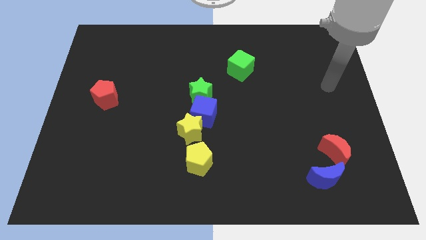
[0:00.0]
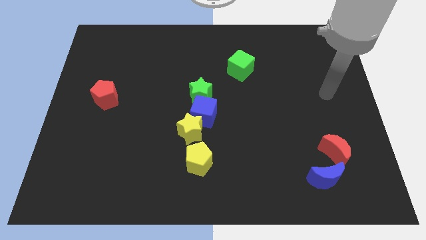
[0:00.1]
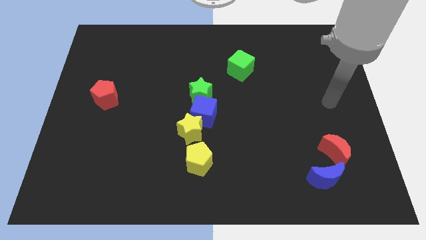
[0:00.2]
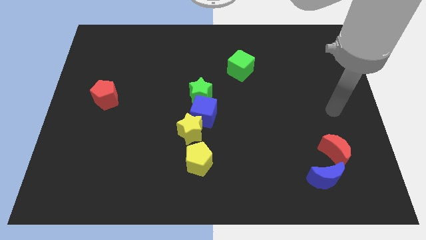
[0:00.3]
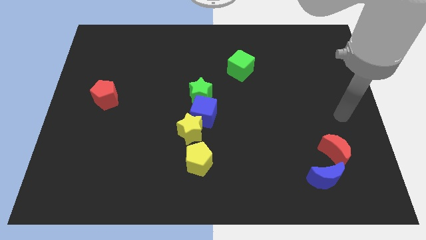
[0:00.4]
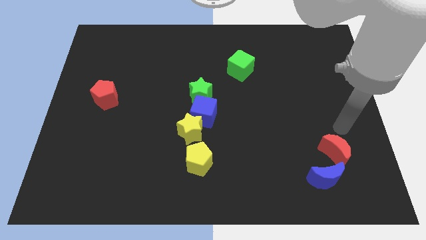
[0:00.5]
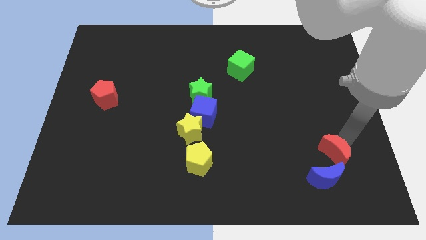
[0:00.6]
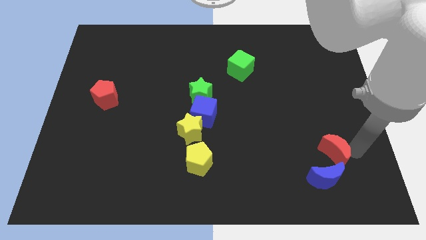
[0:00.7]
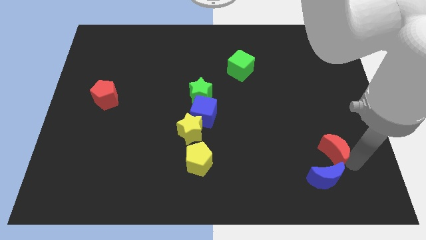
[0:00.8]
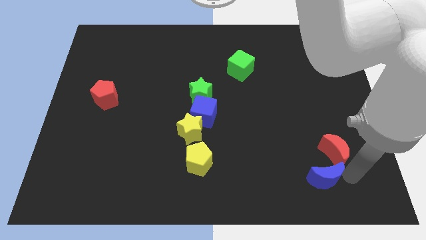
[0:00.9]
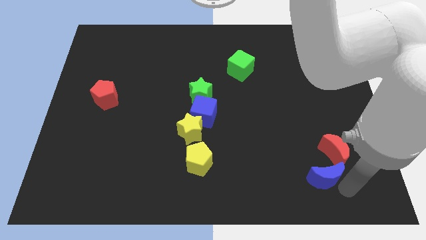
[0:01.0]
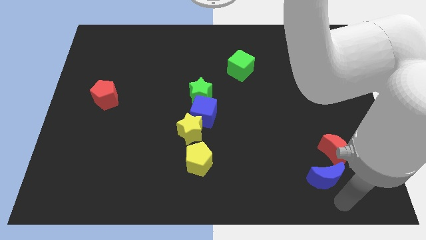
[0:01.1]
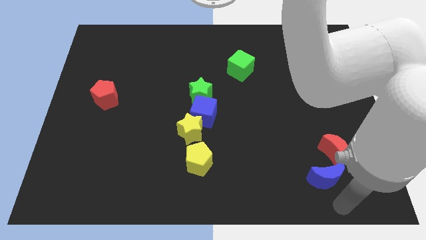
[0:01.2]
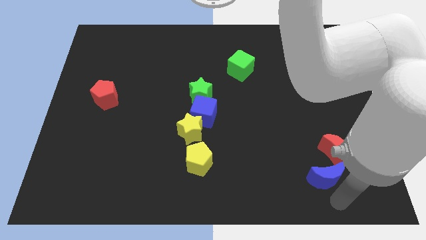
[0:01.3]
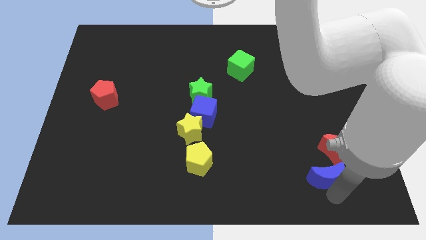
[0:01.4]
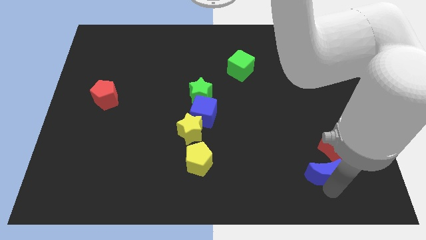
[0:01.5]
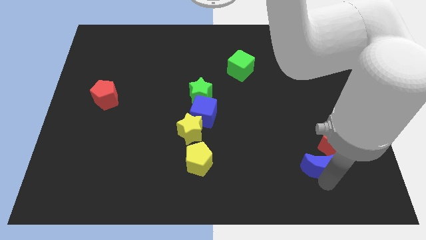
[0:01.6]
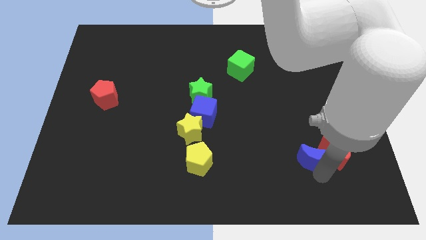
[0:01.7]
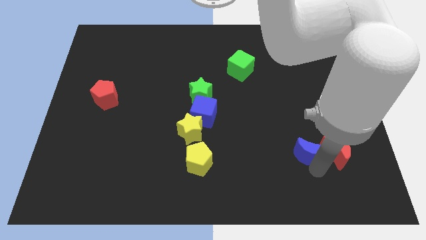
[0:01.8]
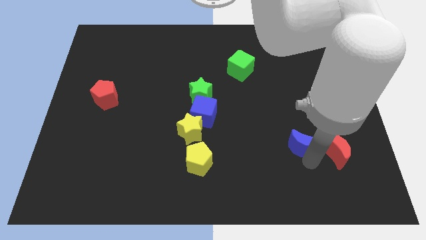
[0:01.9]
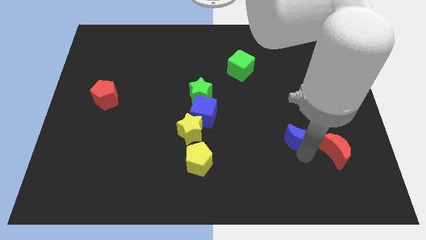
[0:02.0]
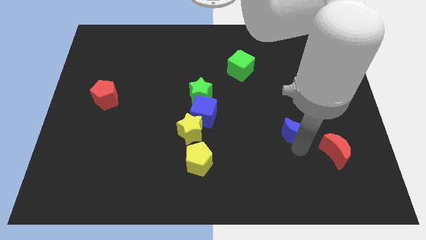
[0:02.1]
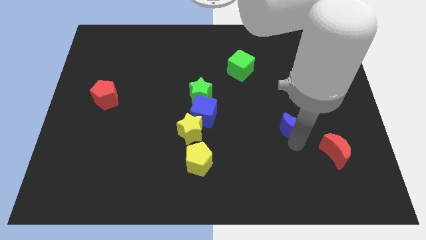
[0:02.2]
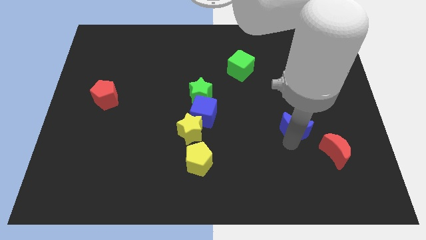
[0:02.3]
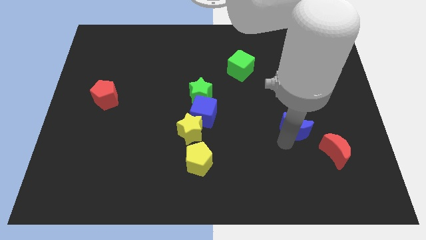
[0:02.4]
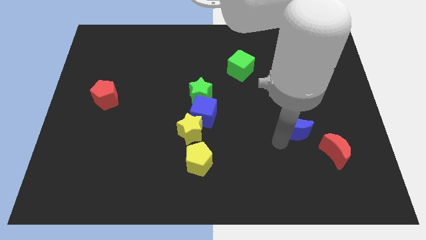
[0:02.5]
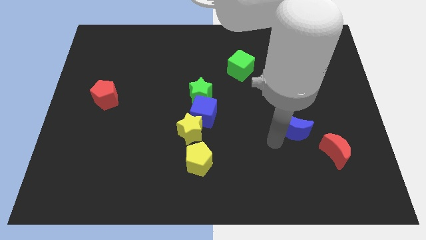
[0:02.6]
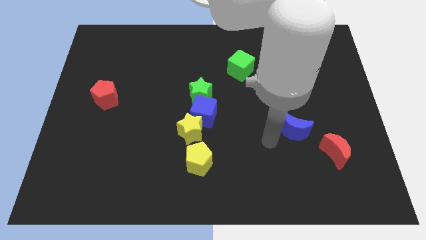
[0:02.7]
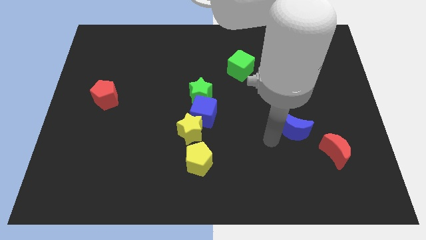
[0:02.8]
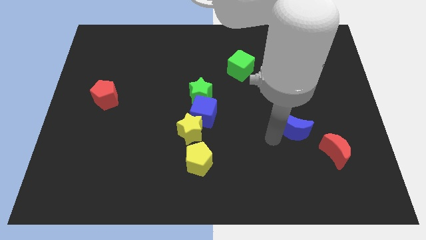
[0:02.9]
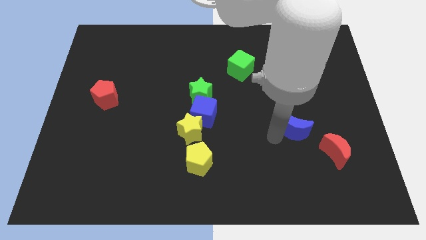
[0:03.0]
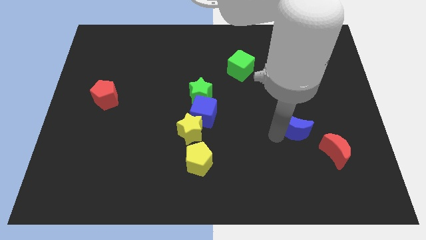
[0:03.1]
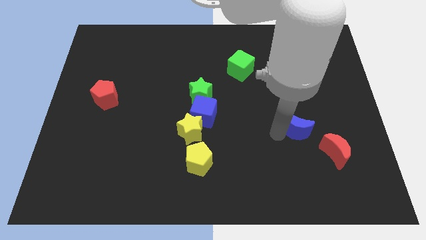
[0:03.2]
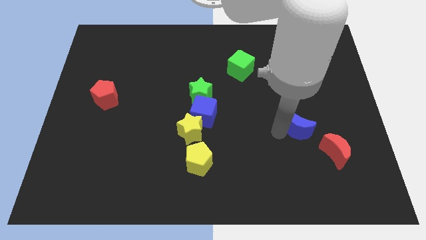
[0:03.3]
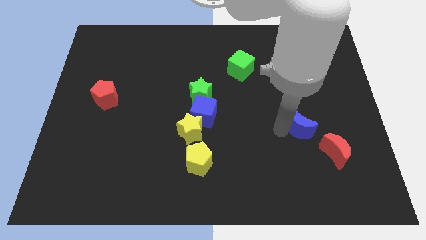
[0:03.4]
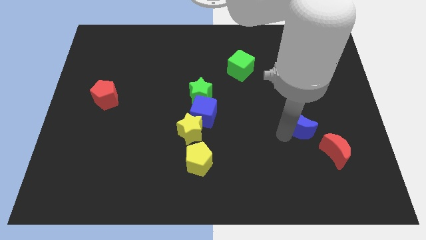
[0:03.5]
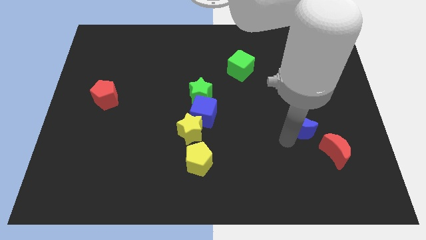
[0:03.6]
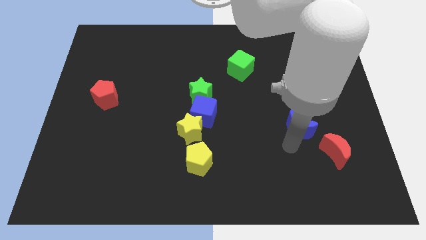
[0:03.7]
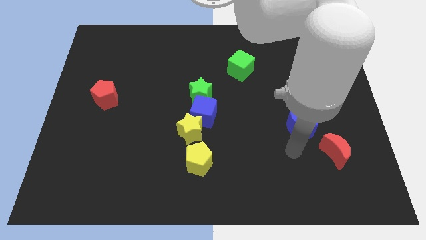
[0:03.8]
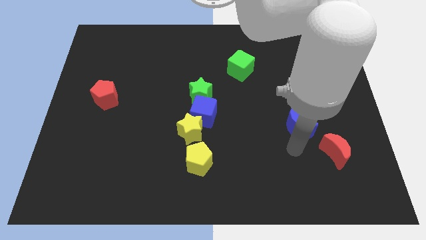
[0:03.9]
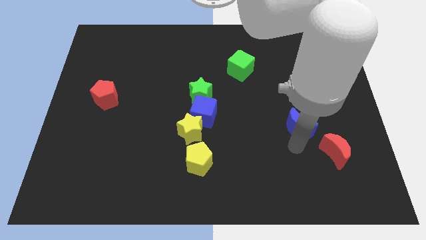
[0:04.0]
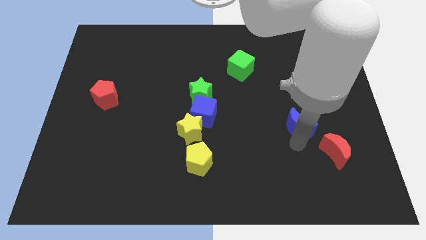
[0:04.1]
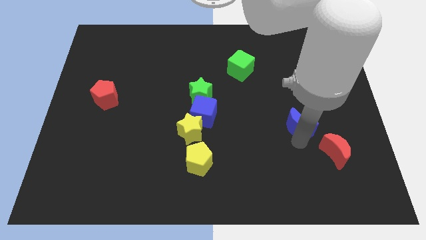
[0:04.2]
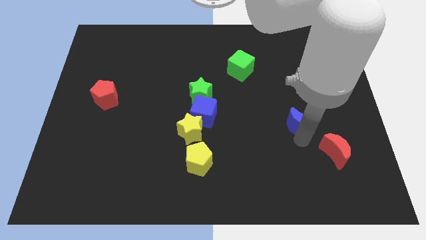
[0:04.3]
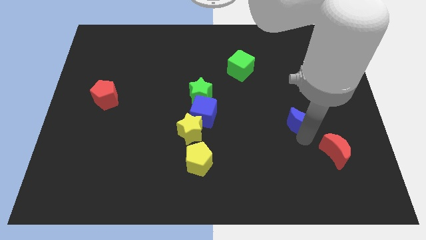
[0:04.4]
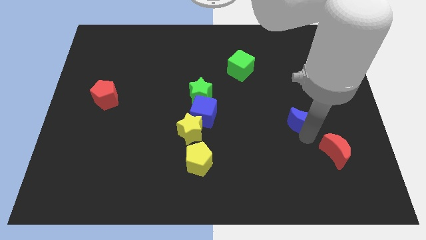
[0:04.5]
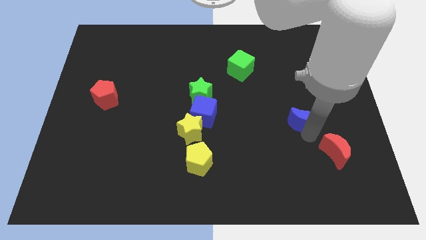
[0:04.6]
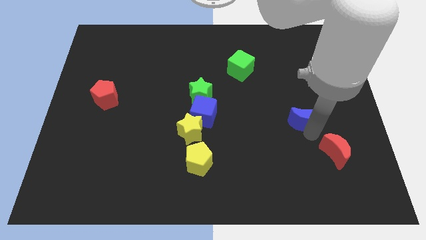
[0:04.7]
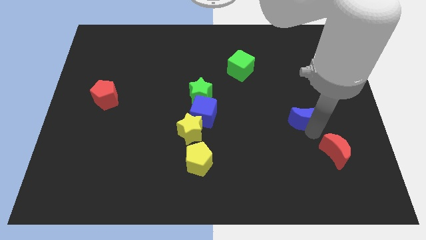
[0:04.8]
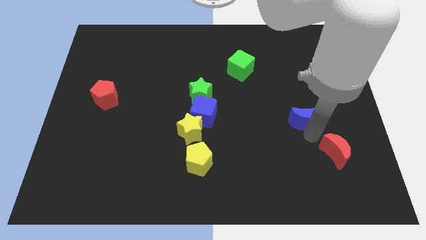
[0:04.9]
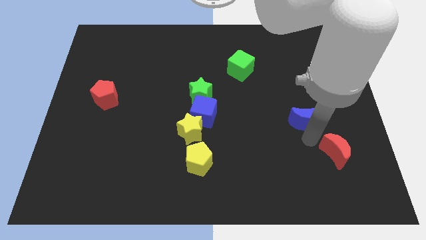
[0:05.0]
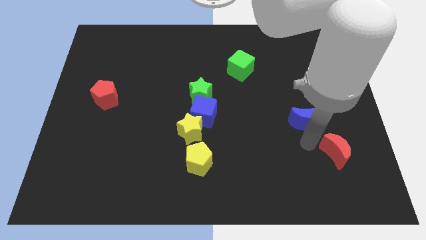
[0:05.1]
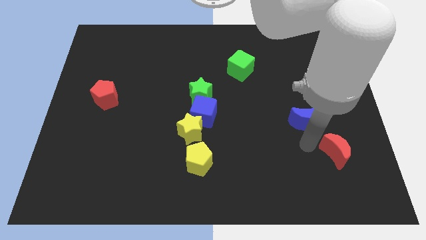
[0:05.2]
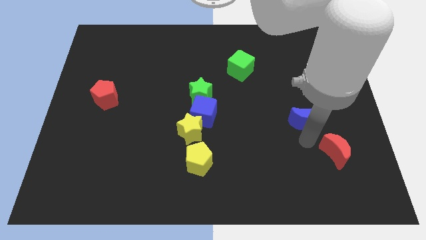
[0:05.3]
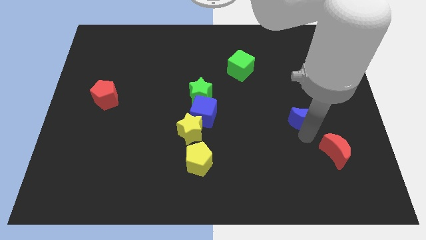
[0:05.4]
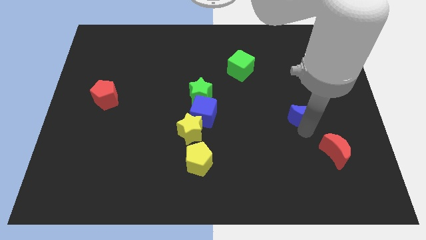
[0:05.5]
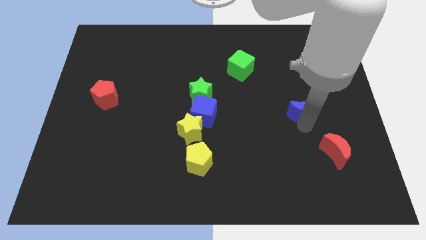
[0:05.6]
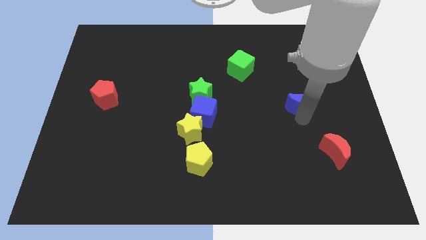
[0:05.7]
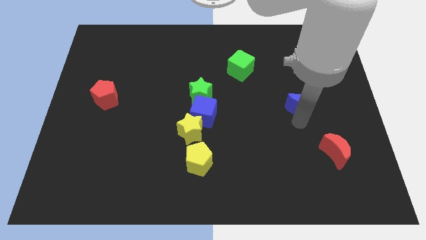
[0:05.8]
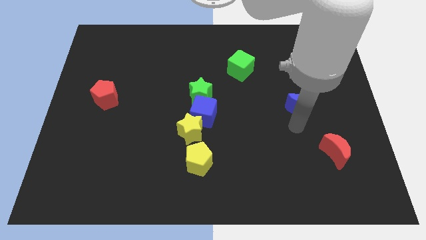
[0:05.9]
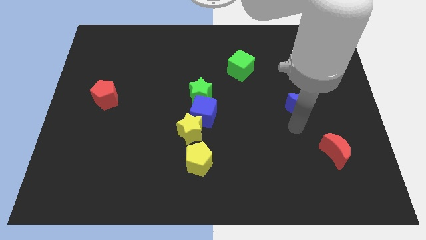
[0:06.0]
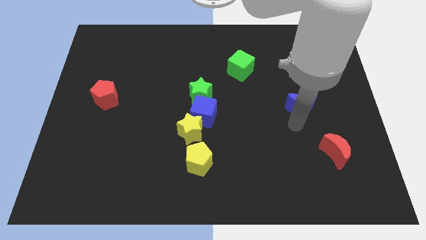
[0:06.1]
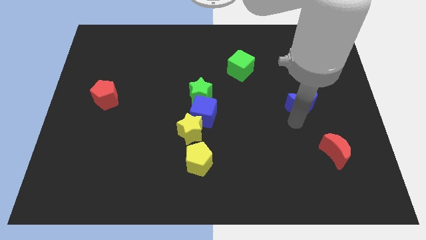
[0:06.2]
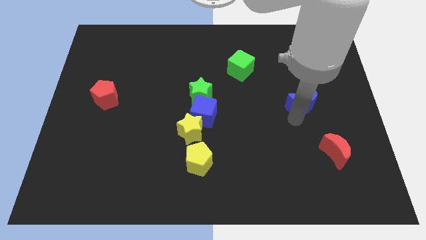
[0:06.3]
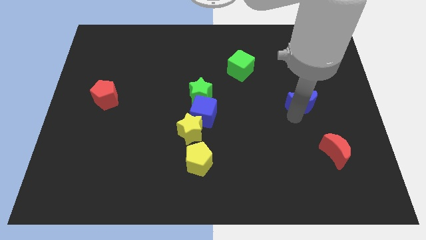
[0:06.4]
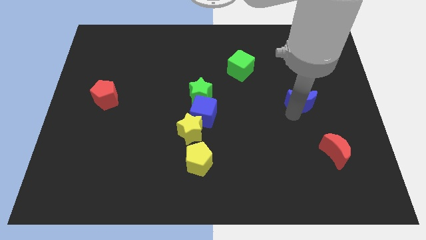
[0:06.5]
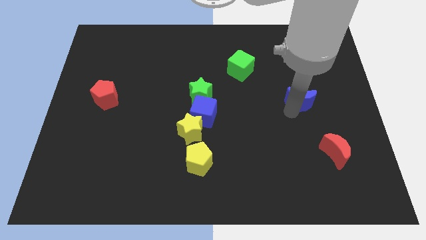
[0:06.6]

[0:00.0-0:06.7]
move the blue moon upwards

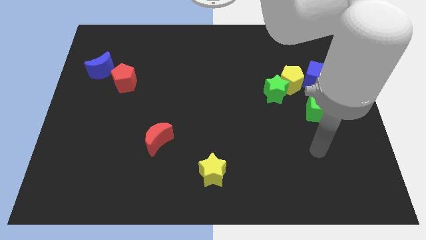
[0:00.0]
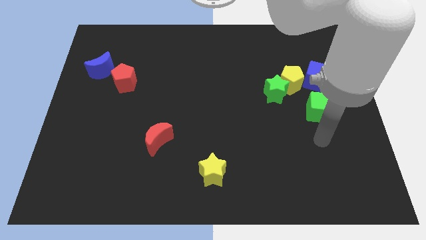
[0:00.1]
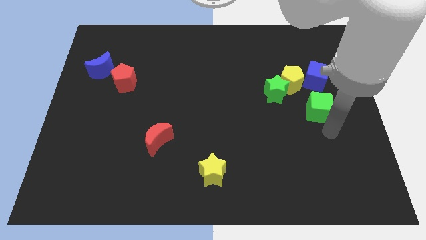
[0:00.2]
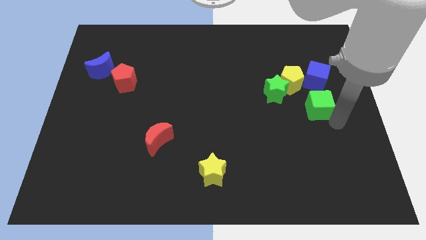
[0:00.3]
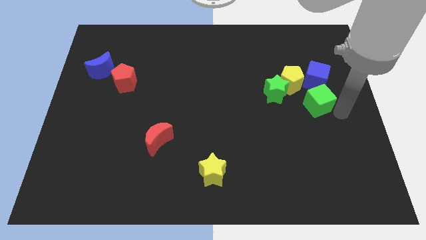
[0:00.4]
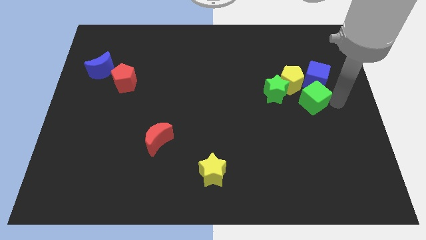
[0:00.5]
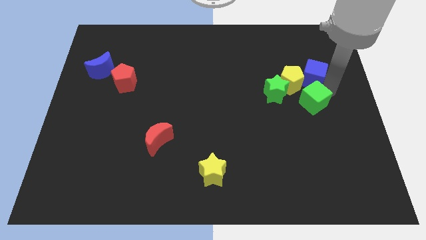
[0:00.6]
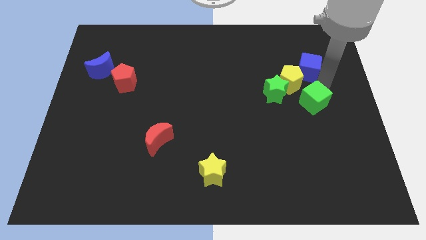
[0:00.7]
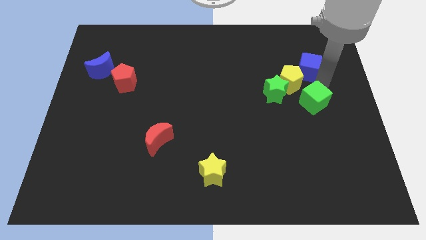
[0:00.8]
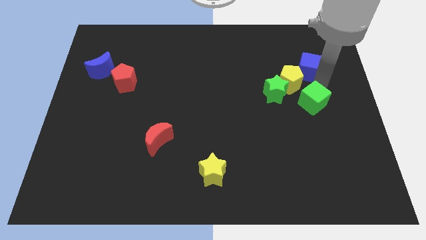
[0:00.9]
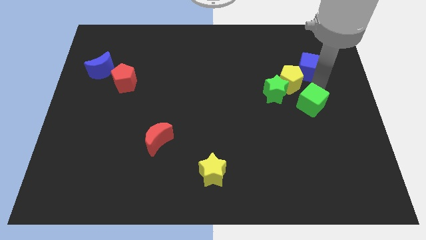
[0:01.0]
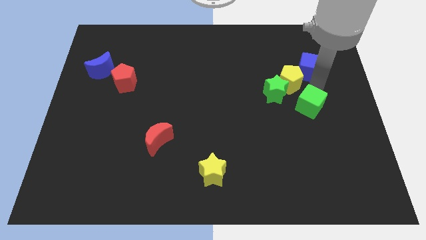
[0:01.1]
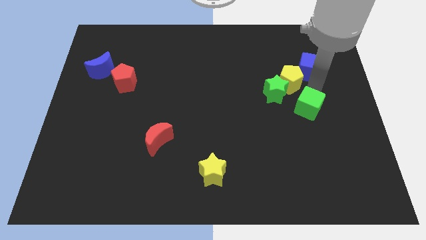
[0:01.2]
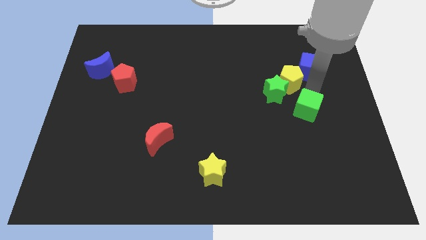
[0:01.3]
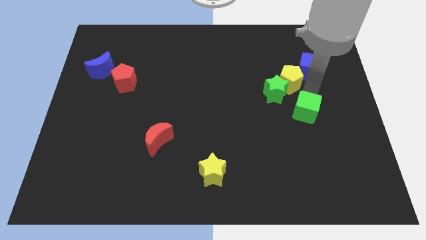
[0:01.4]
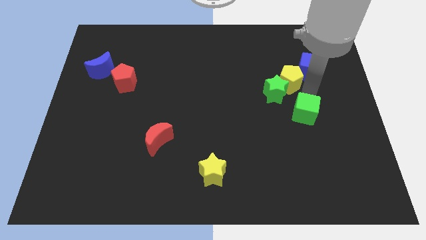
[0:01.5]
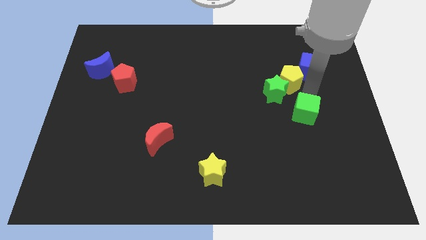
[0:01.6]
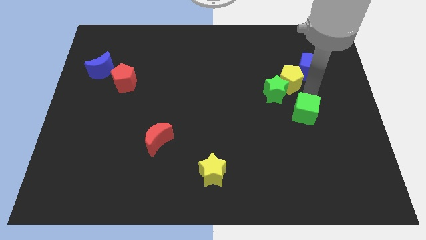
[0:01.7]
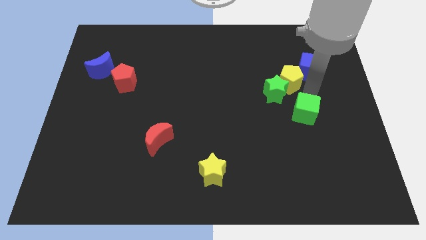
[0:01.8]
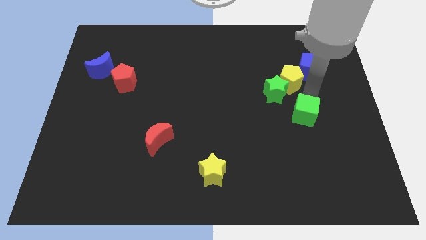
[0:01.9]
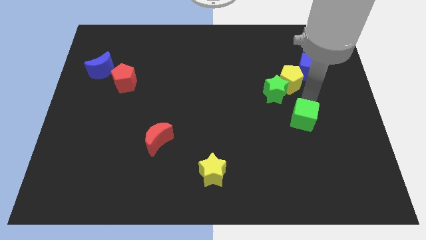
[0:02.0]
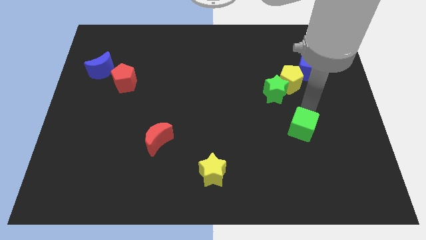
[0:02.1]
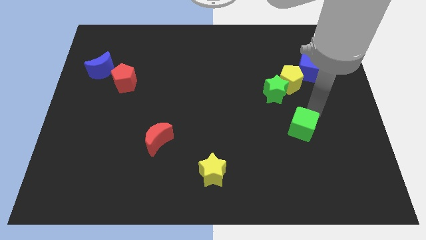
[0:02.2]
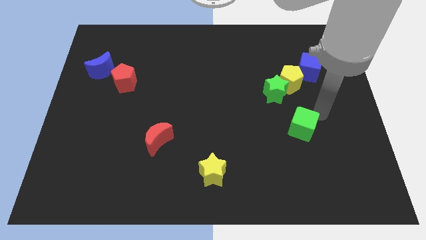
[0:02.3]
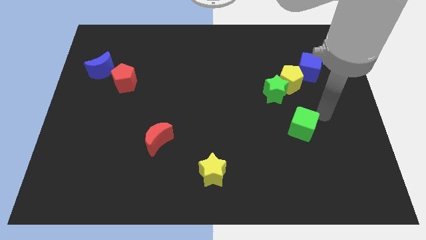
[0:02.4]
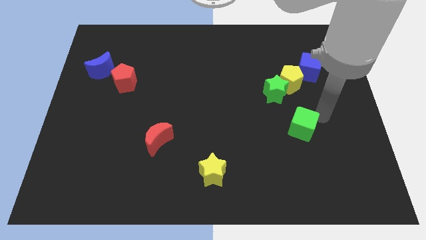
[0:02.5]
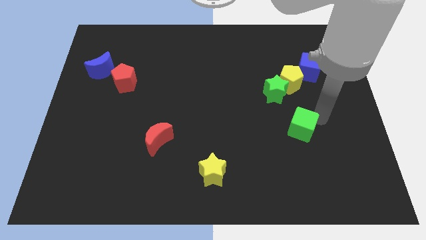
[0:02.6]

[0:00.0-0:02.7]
push the green cube a little downwards and to the left
